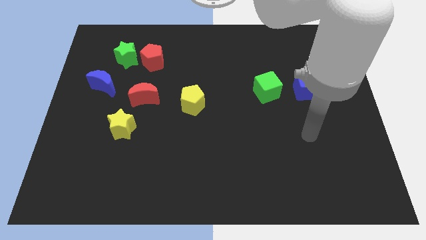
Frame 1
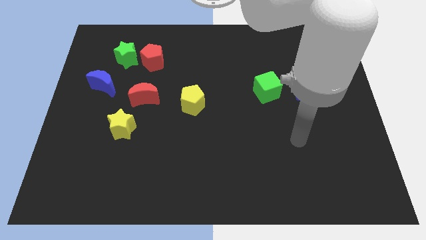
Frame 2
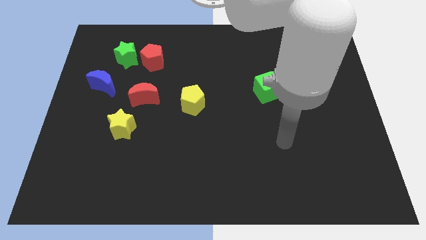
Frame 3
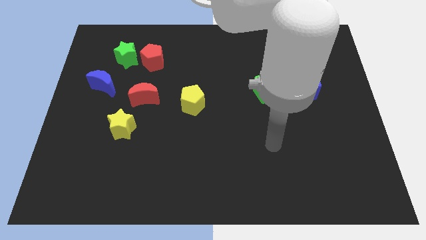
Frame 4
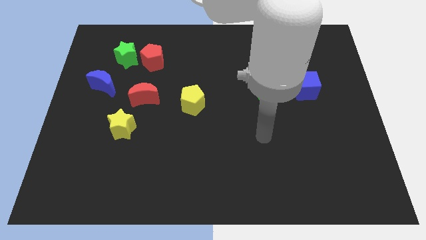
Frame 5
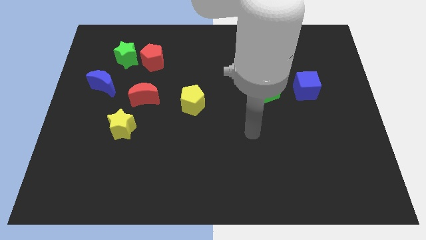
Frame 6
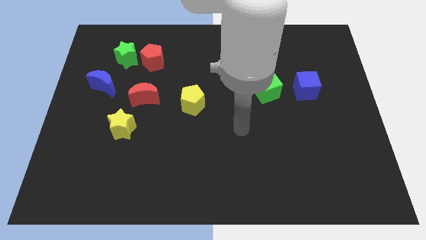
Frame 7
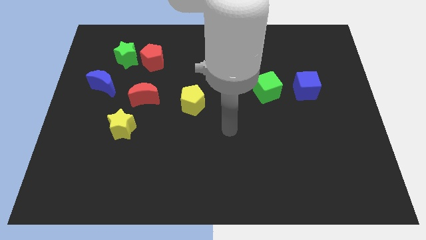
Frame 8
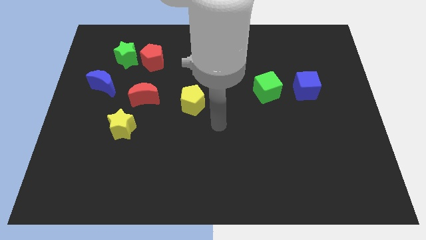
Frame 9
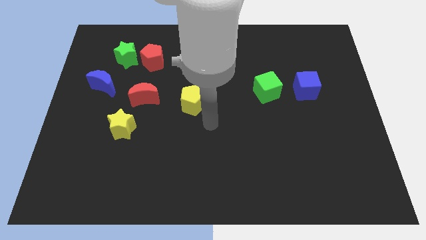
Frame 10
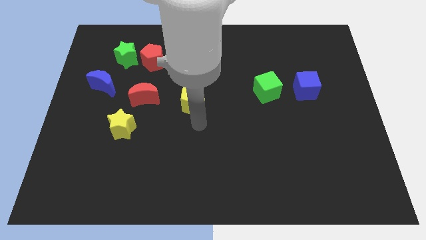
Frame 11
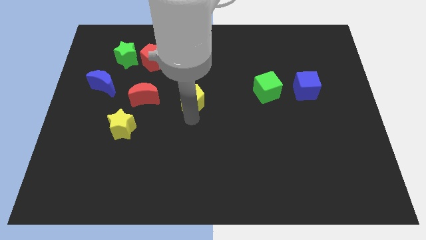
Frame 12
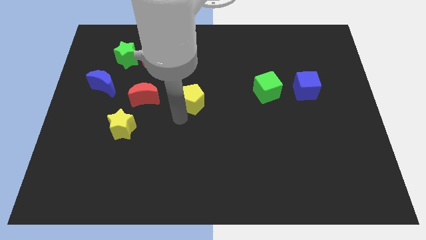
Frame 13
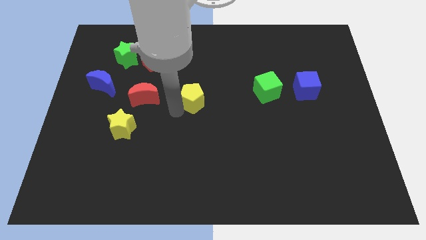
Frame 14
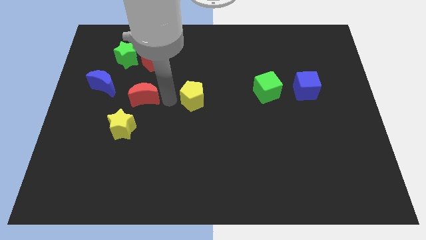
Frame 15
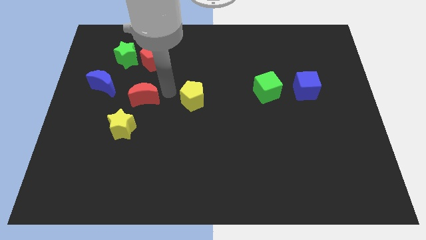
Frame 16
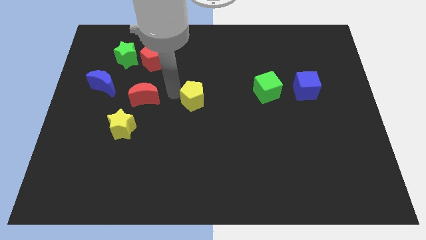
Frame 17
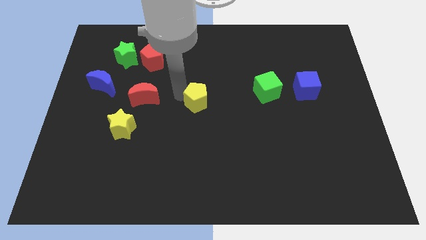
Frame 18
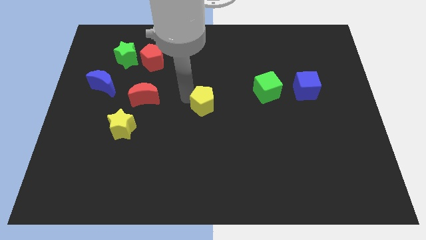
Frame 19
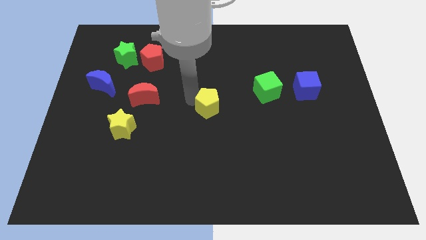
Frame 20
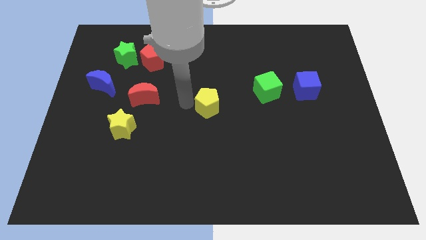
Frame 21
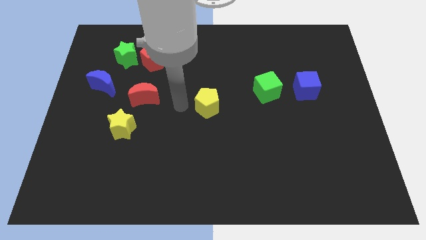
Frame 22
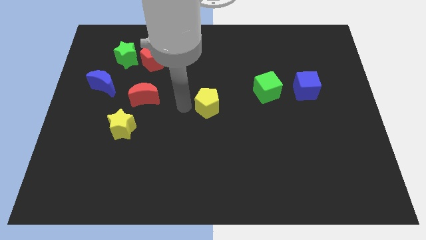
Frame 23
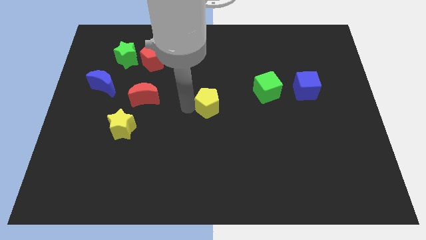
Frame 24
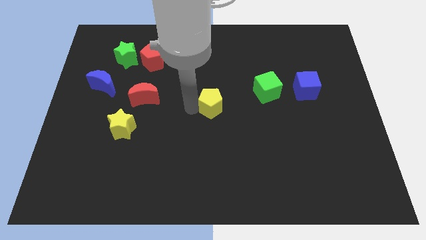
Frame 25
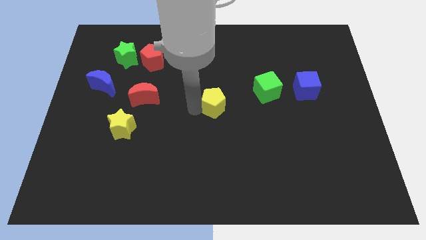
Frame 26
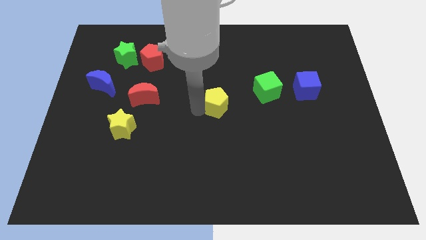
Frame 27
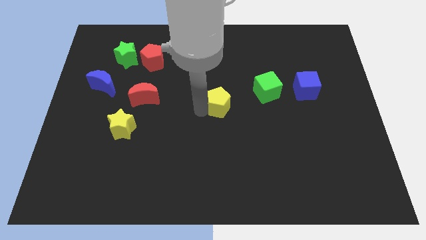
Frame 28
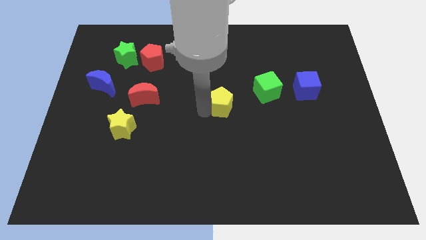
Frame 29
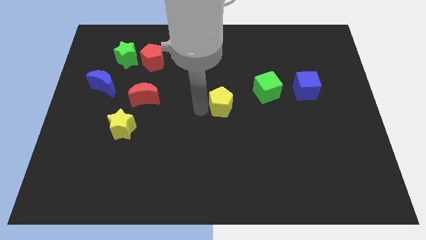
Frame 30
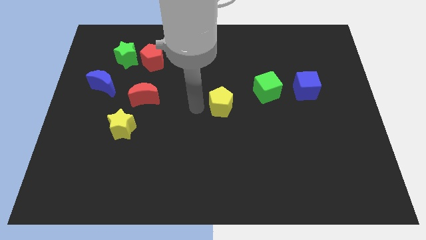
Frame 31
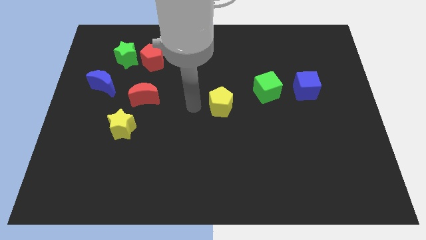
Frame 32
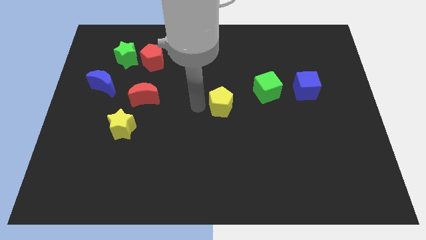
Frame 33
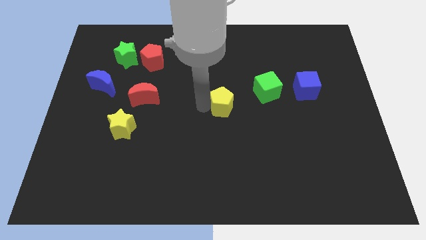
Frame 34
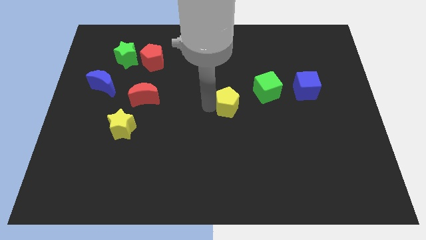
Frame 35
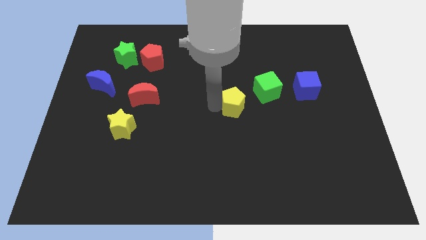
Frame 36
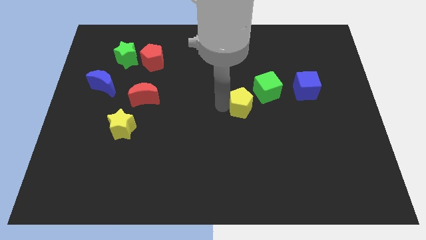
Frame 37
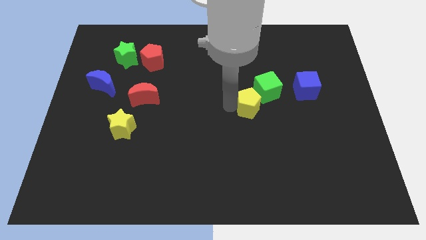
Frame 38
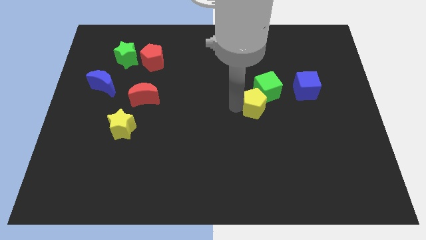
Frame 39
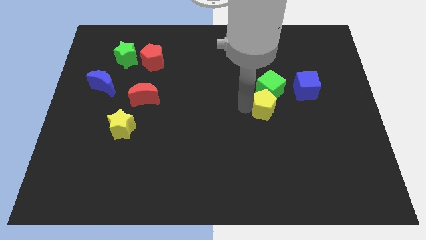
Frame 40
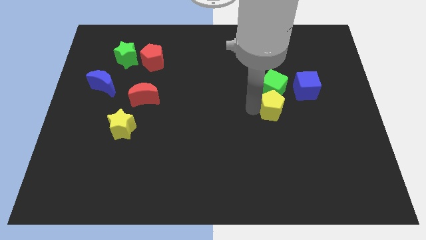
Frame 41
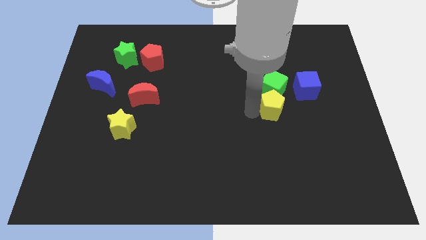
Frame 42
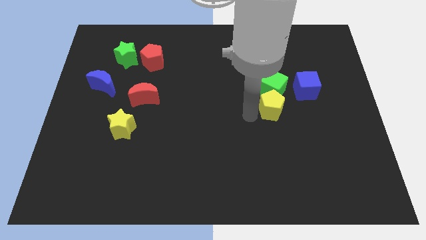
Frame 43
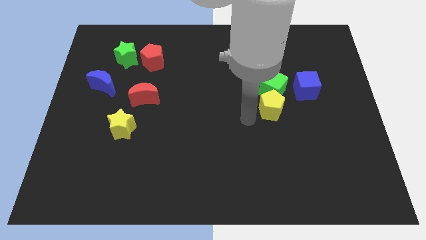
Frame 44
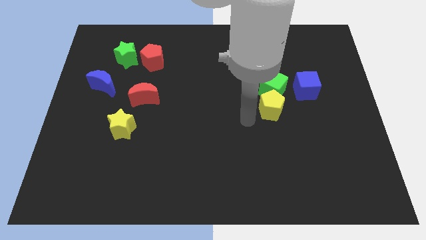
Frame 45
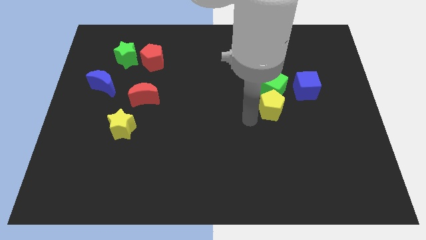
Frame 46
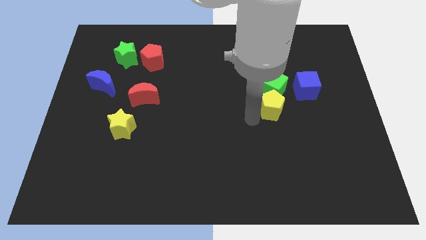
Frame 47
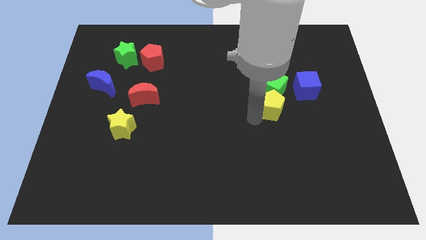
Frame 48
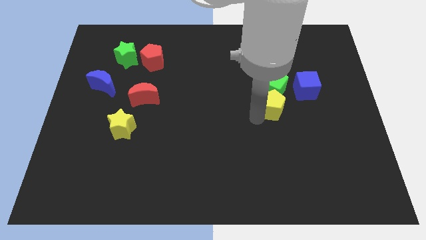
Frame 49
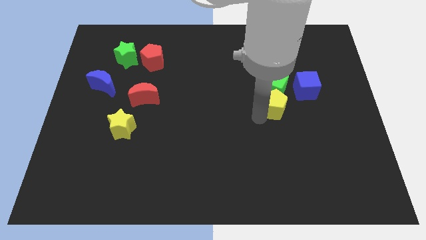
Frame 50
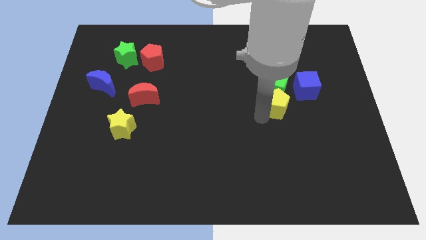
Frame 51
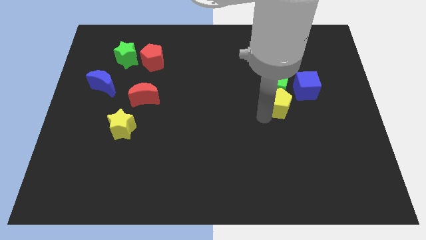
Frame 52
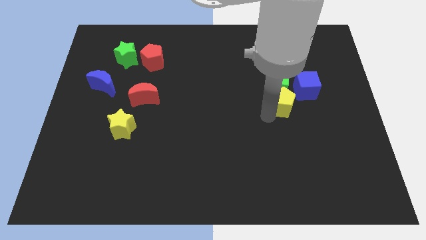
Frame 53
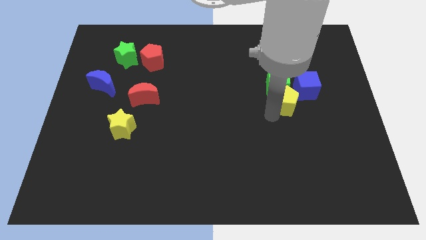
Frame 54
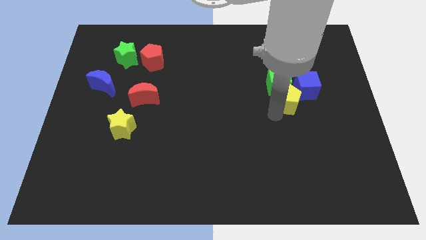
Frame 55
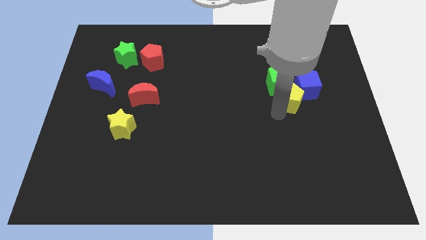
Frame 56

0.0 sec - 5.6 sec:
slide the yellow pentagon to the blue cube
